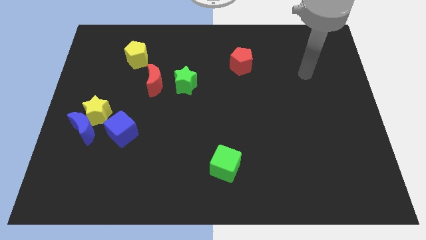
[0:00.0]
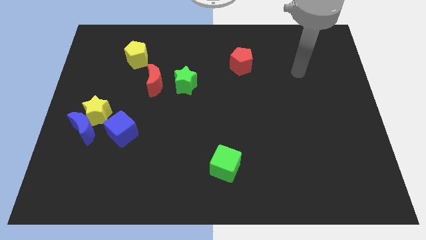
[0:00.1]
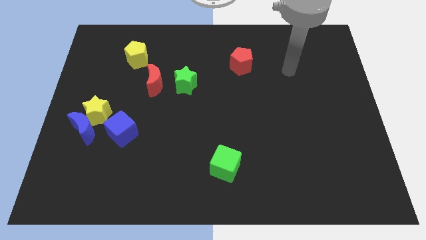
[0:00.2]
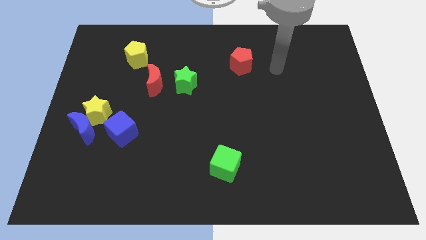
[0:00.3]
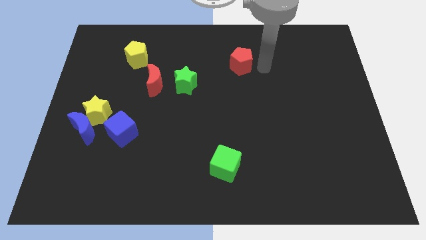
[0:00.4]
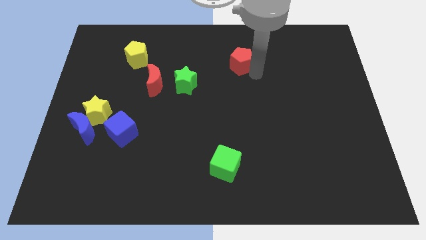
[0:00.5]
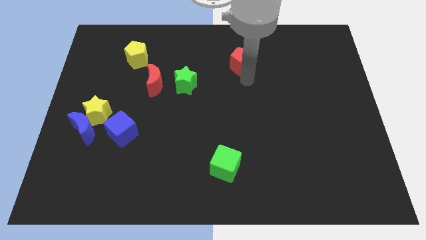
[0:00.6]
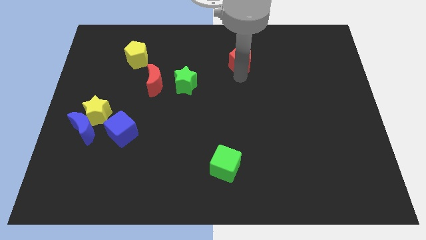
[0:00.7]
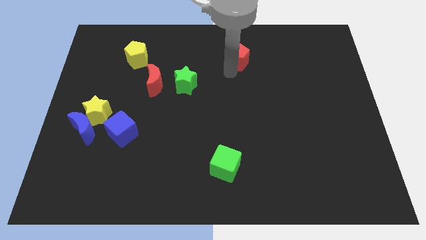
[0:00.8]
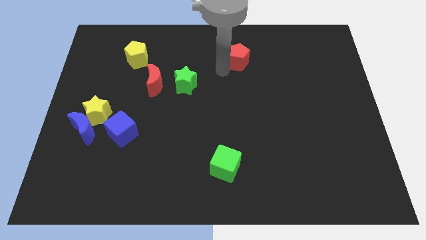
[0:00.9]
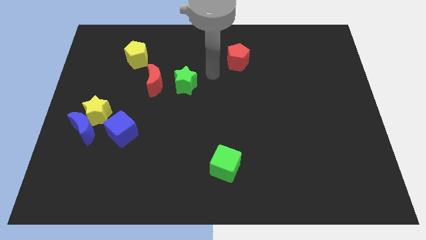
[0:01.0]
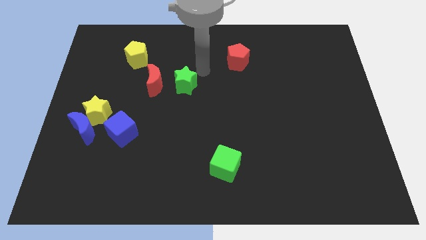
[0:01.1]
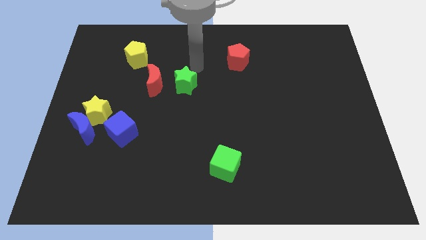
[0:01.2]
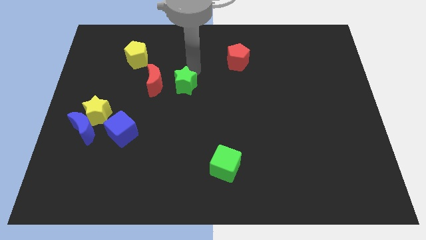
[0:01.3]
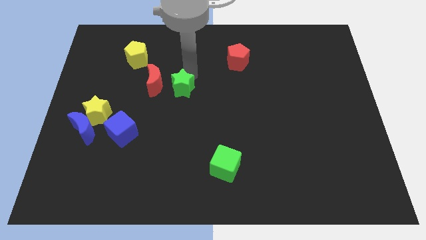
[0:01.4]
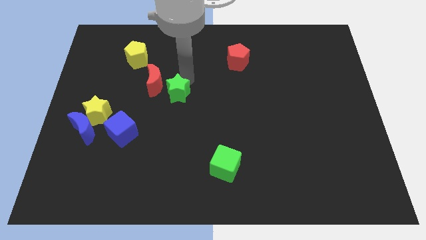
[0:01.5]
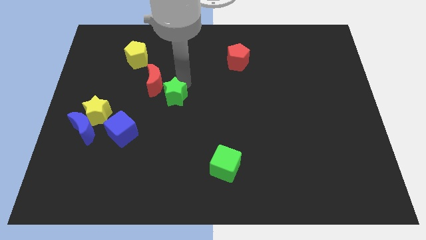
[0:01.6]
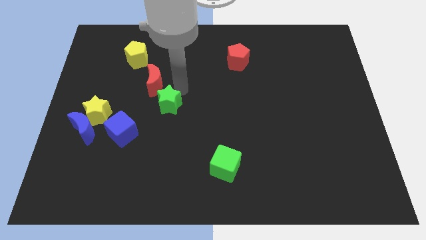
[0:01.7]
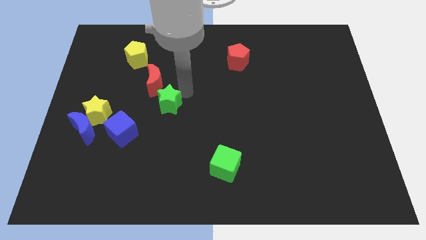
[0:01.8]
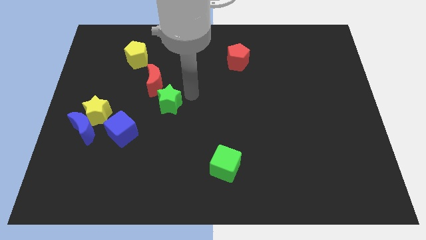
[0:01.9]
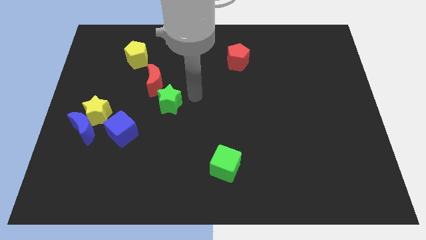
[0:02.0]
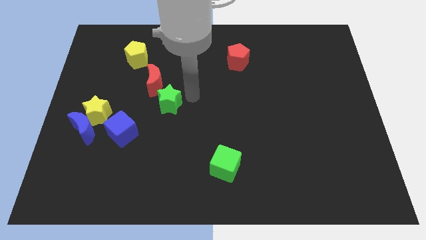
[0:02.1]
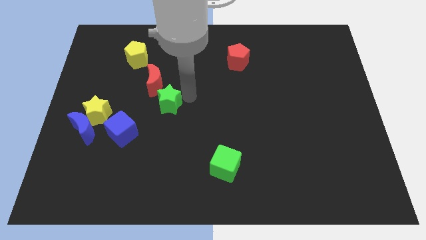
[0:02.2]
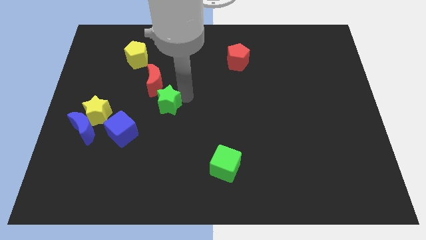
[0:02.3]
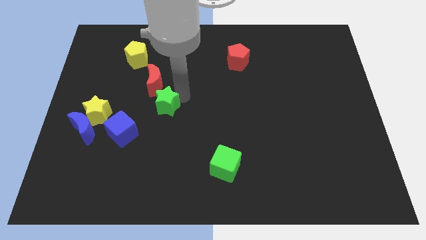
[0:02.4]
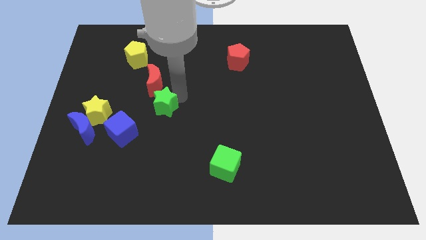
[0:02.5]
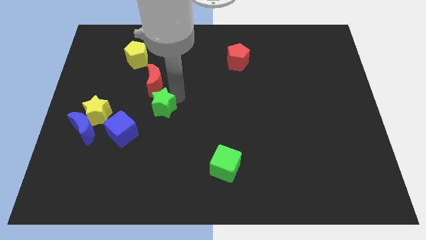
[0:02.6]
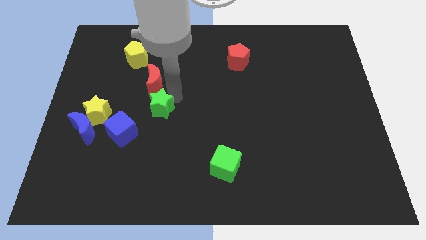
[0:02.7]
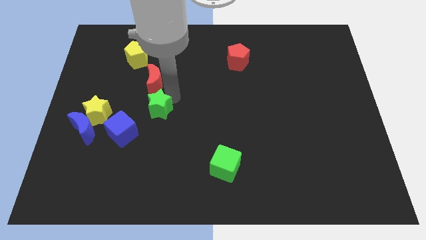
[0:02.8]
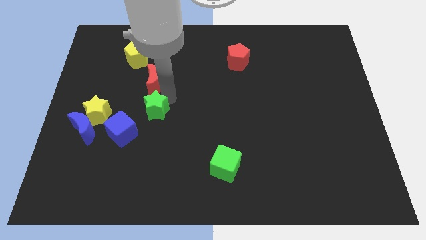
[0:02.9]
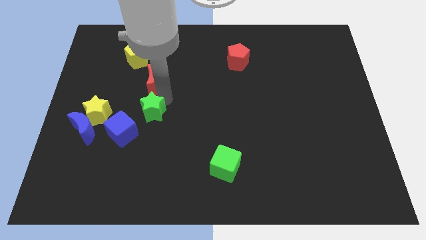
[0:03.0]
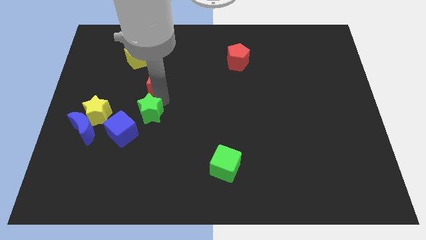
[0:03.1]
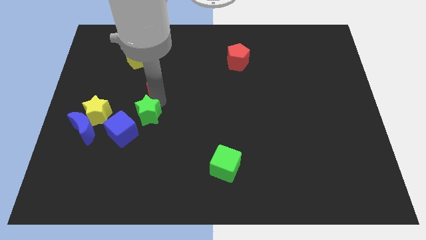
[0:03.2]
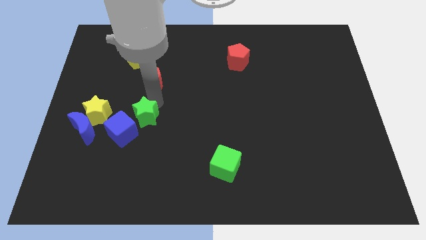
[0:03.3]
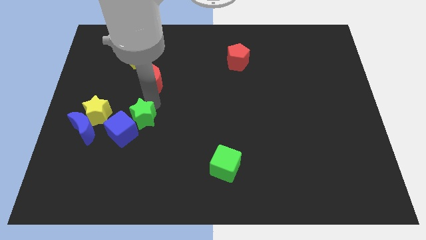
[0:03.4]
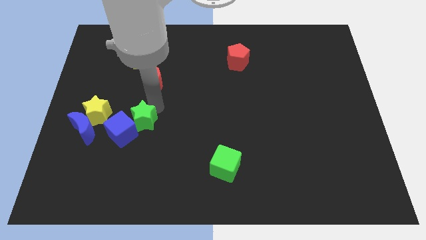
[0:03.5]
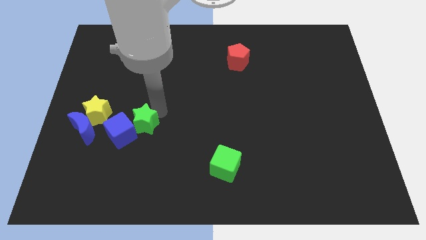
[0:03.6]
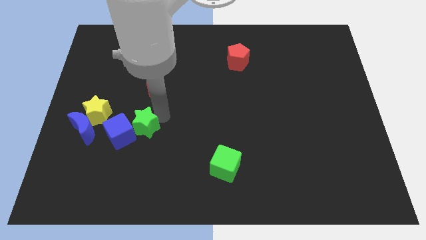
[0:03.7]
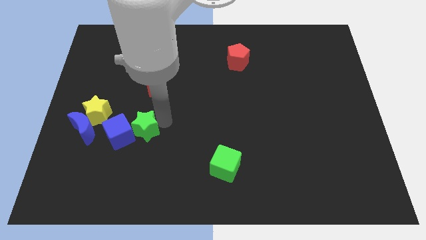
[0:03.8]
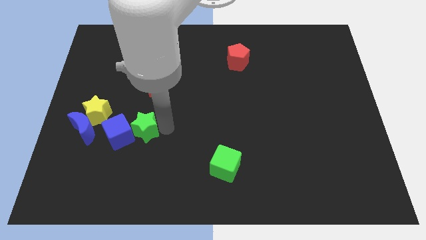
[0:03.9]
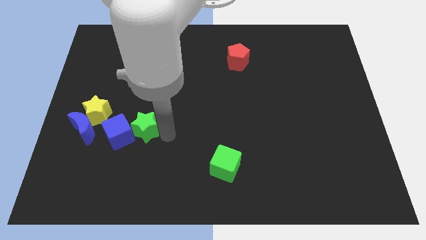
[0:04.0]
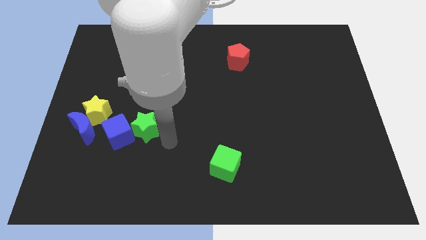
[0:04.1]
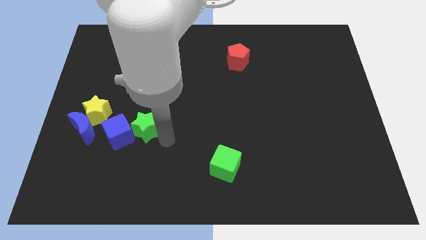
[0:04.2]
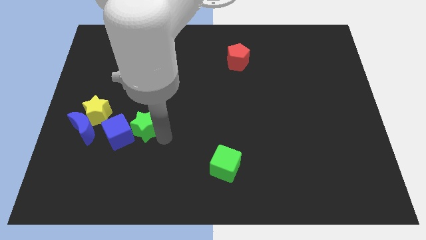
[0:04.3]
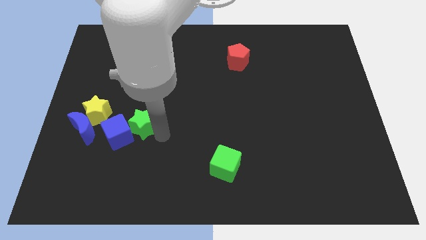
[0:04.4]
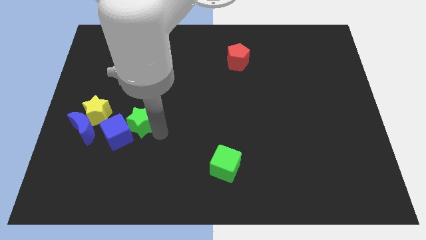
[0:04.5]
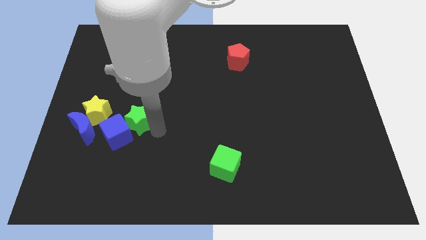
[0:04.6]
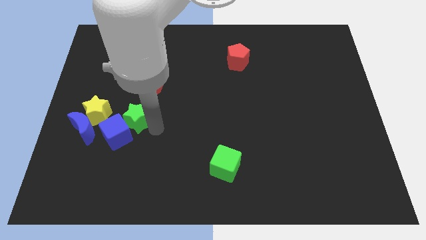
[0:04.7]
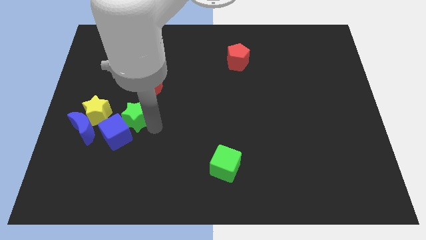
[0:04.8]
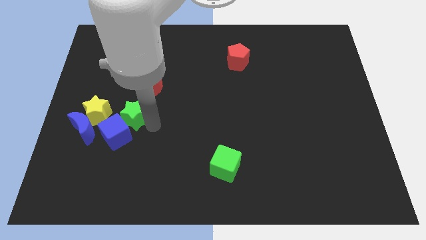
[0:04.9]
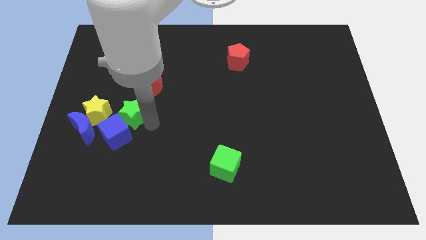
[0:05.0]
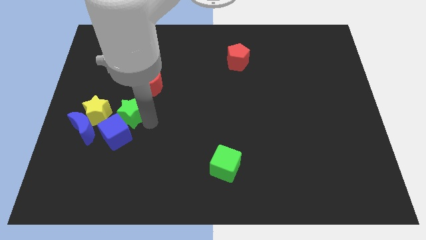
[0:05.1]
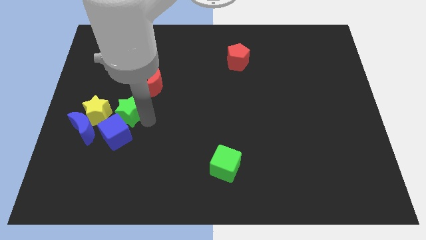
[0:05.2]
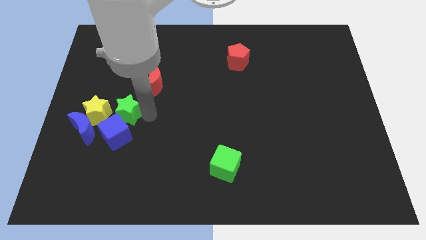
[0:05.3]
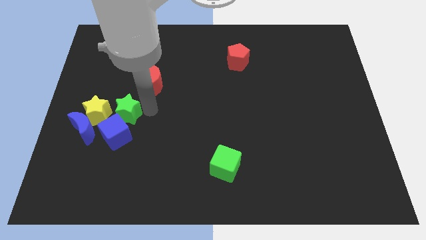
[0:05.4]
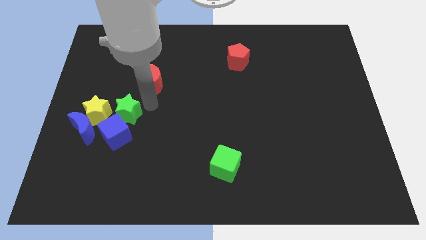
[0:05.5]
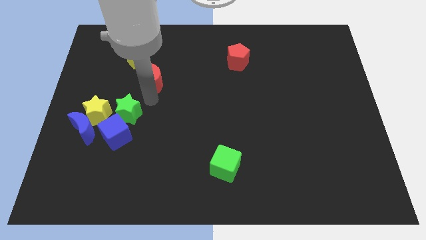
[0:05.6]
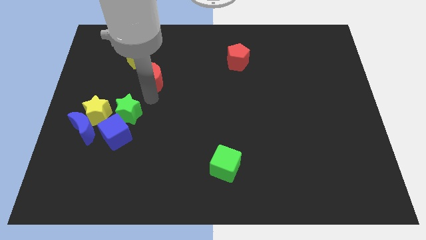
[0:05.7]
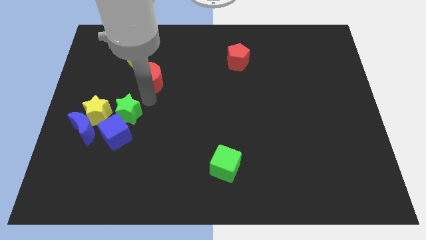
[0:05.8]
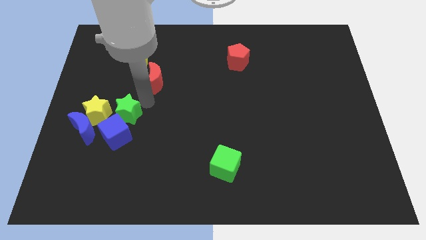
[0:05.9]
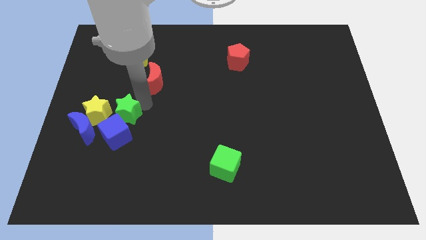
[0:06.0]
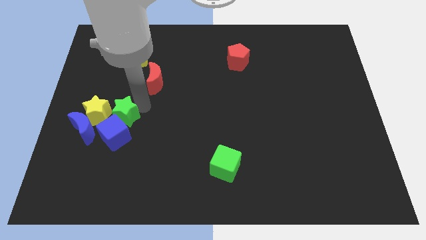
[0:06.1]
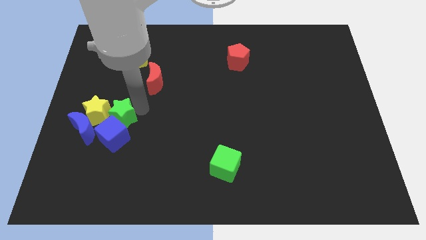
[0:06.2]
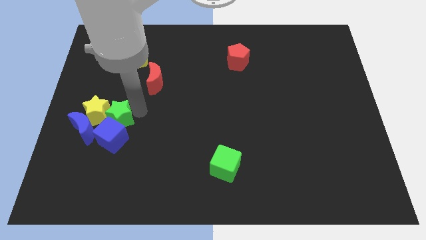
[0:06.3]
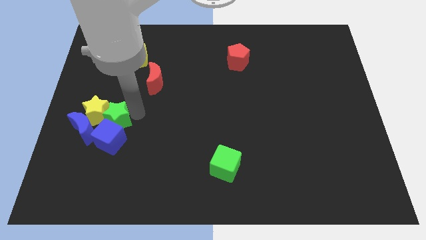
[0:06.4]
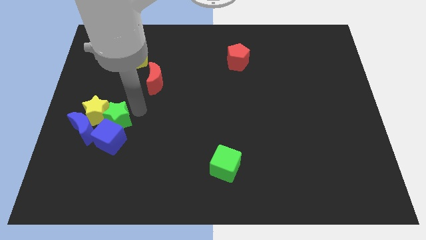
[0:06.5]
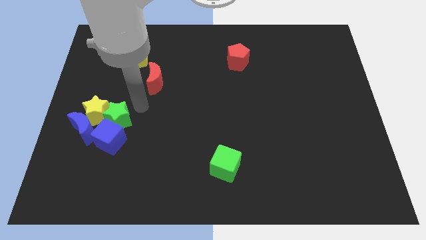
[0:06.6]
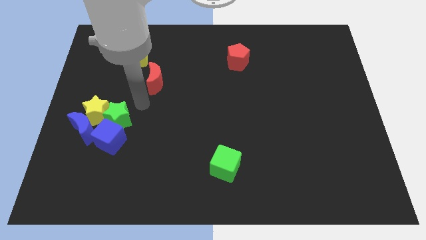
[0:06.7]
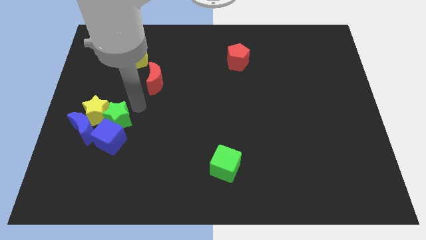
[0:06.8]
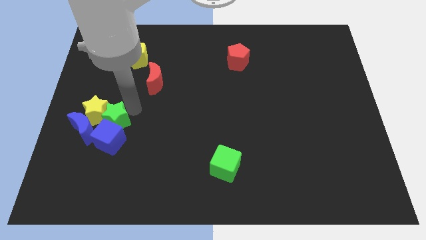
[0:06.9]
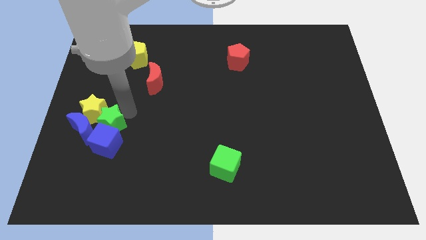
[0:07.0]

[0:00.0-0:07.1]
push the green star close to the blue moon
